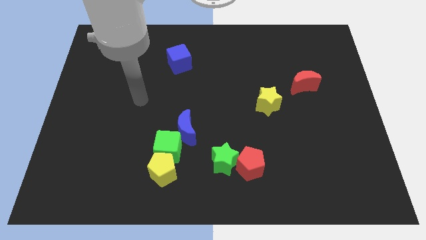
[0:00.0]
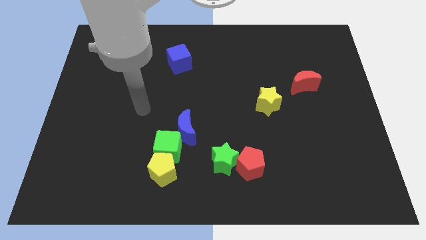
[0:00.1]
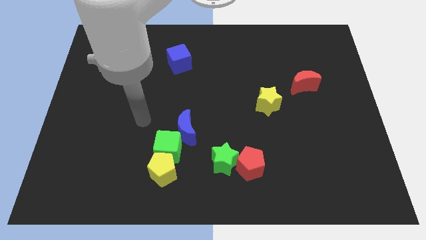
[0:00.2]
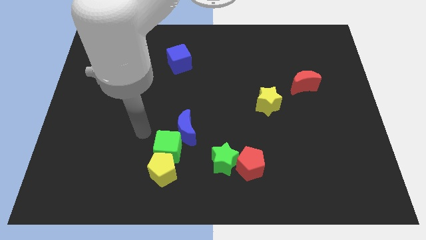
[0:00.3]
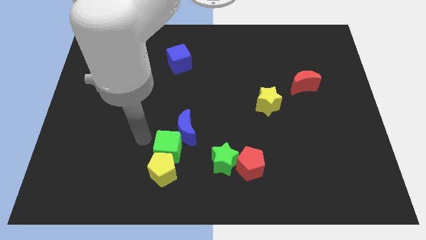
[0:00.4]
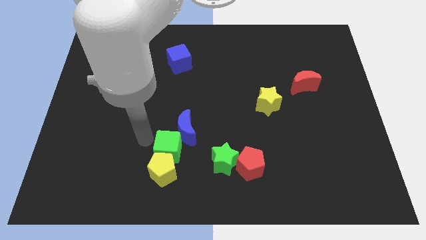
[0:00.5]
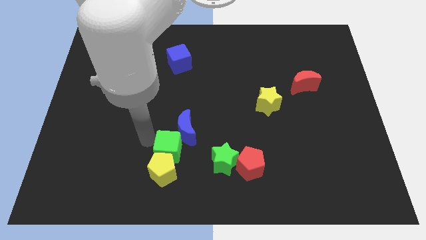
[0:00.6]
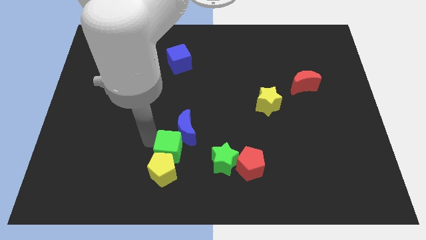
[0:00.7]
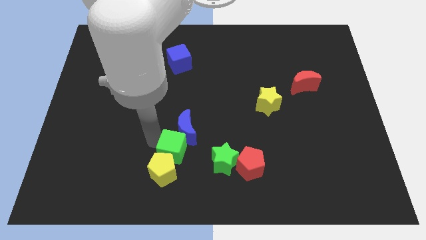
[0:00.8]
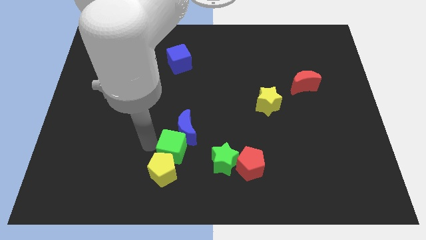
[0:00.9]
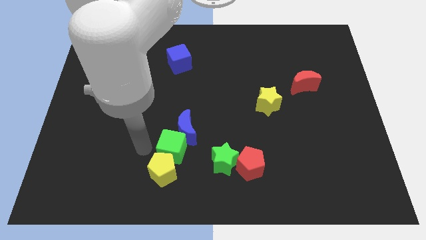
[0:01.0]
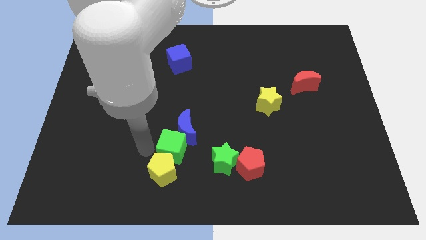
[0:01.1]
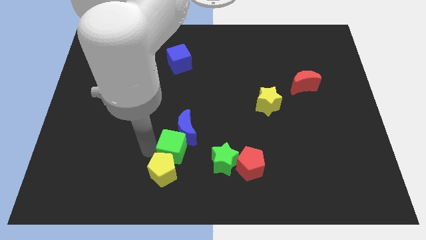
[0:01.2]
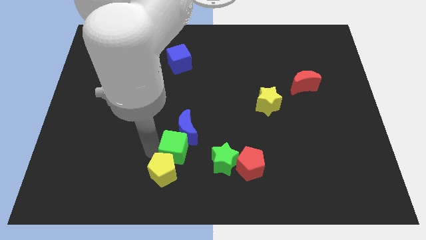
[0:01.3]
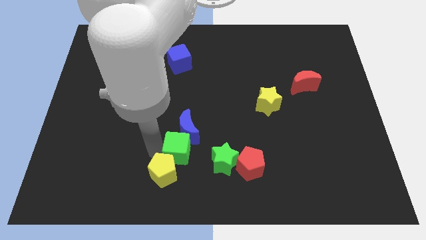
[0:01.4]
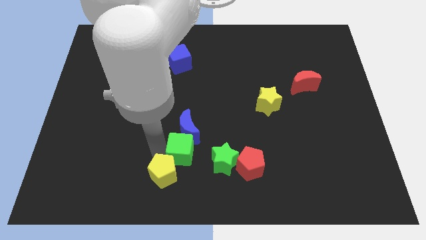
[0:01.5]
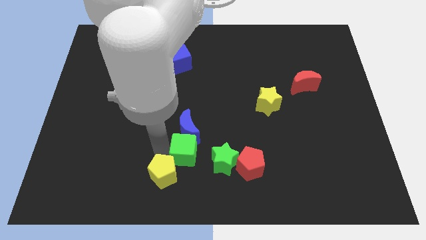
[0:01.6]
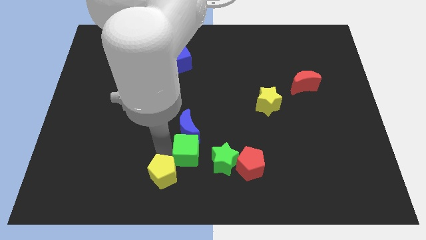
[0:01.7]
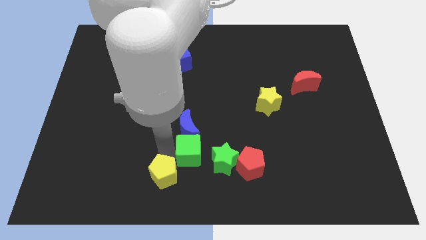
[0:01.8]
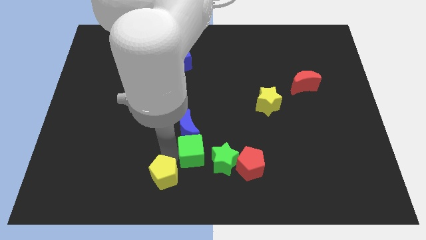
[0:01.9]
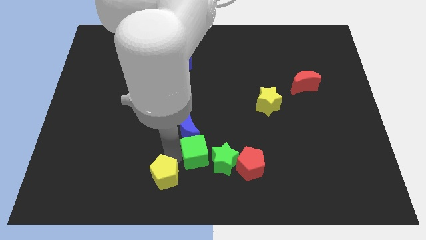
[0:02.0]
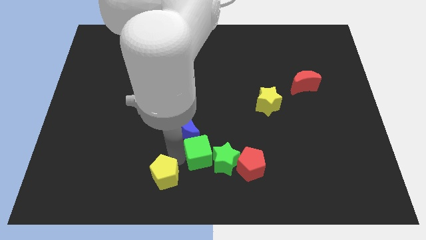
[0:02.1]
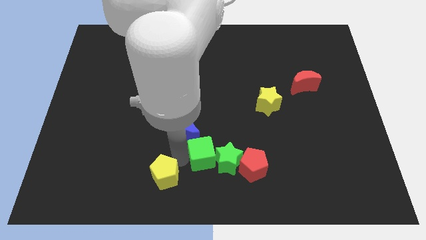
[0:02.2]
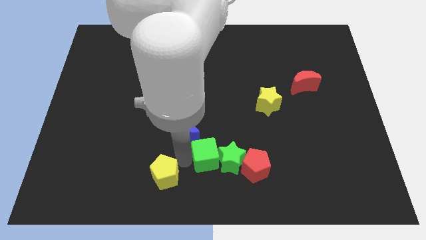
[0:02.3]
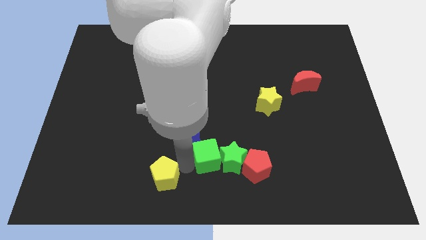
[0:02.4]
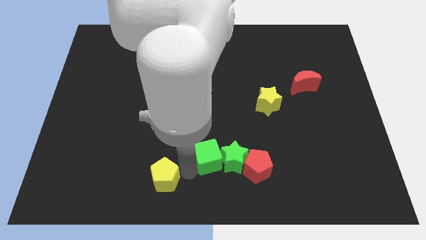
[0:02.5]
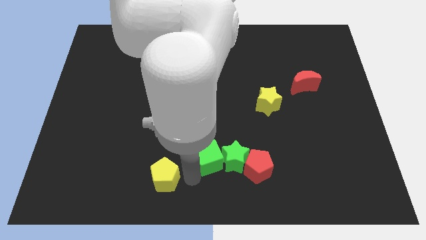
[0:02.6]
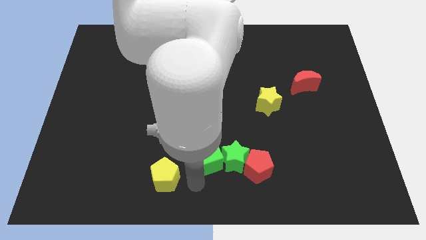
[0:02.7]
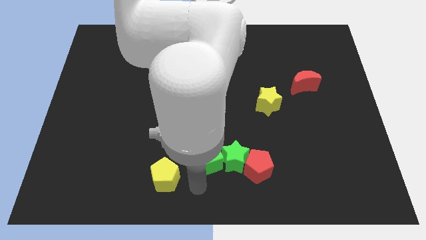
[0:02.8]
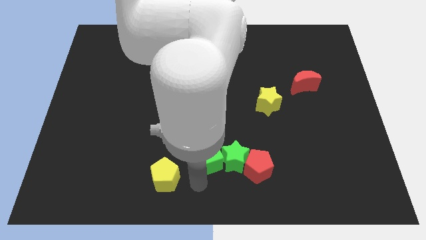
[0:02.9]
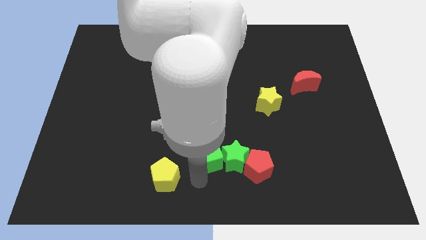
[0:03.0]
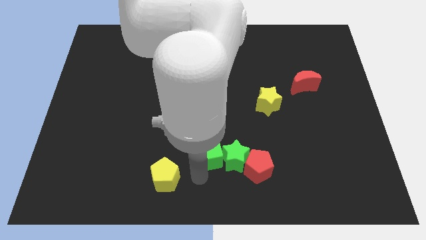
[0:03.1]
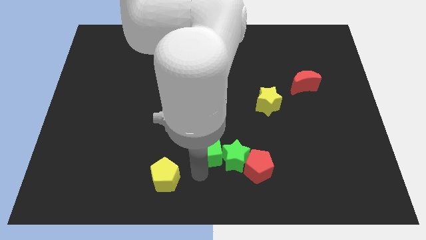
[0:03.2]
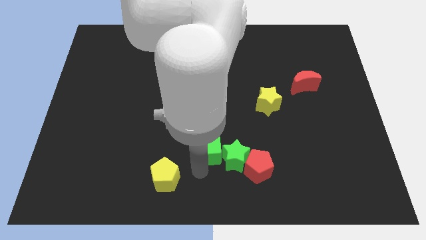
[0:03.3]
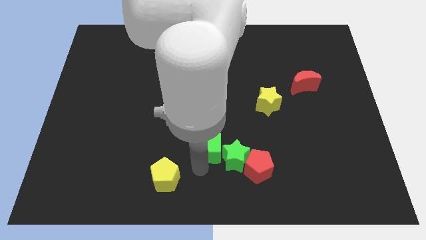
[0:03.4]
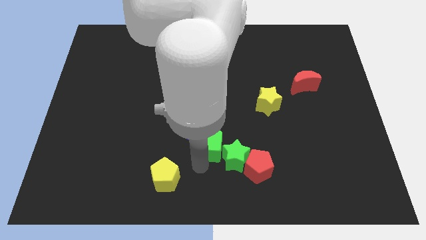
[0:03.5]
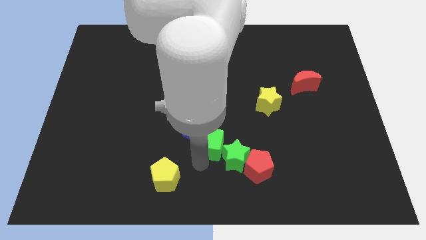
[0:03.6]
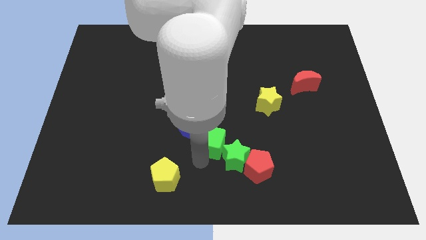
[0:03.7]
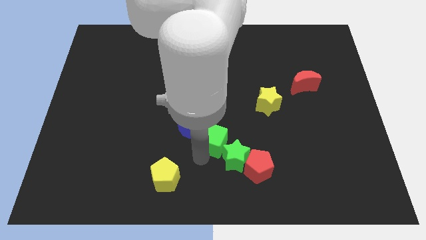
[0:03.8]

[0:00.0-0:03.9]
slide the green cube a bit up and to the right diagonally

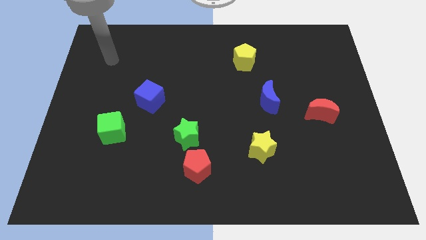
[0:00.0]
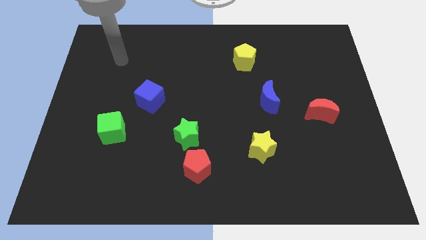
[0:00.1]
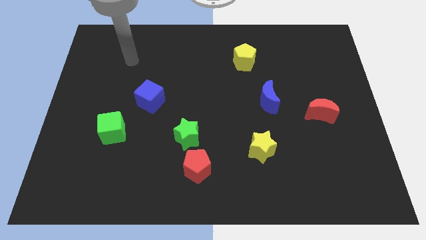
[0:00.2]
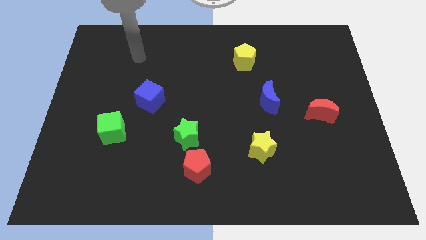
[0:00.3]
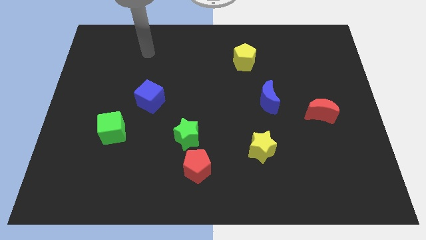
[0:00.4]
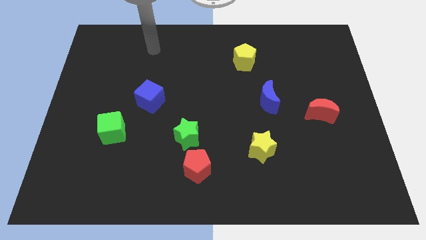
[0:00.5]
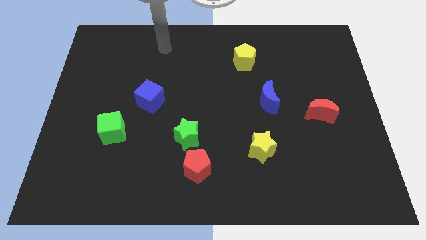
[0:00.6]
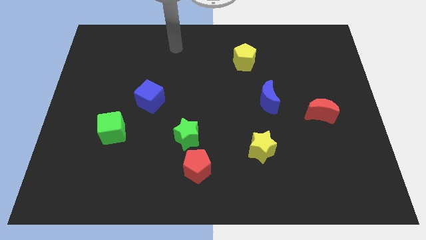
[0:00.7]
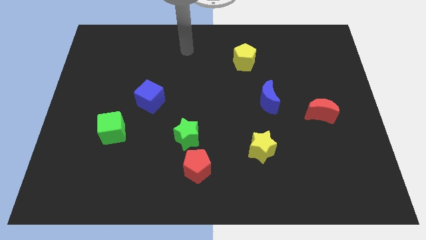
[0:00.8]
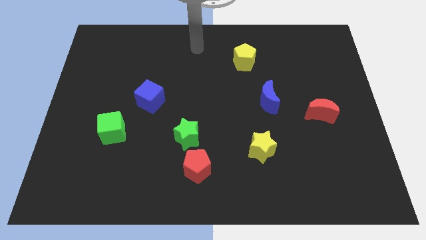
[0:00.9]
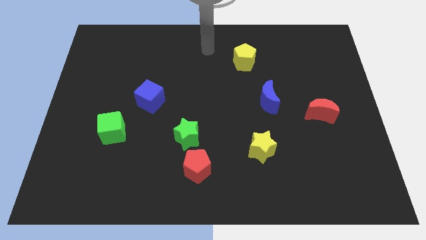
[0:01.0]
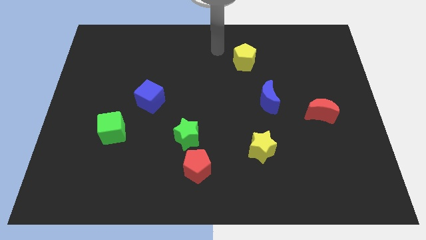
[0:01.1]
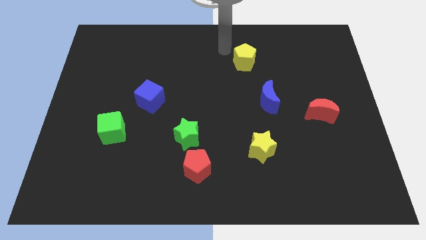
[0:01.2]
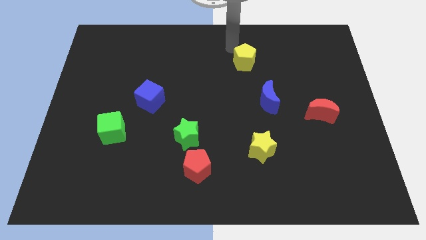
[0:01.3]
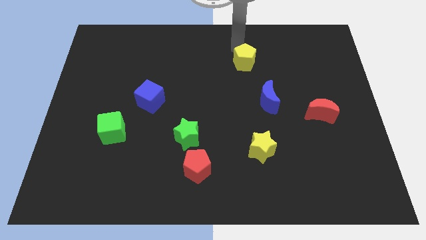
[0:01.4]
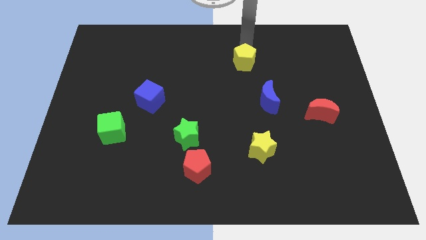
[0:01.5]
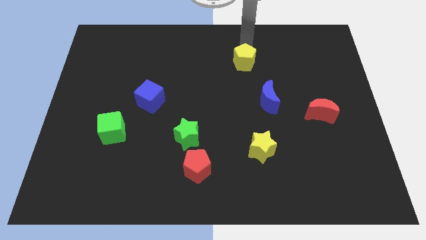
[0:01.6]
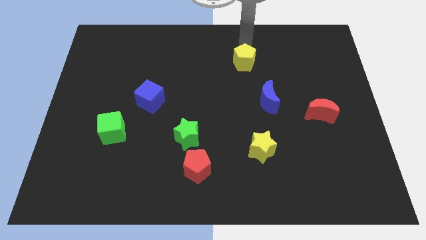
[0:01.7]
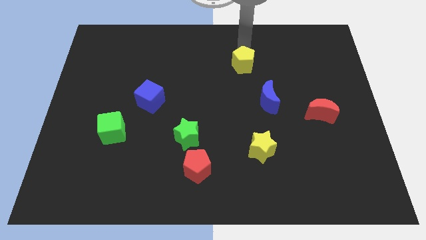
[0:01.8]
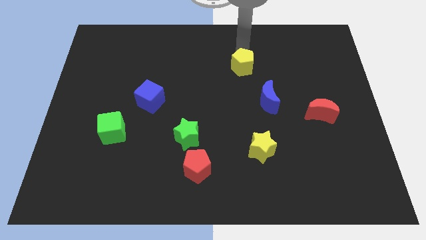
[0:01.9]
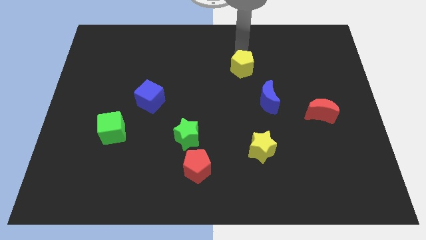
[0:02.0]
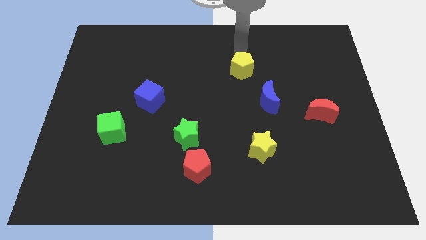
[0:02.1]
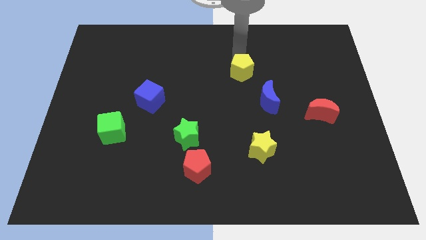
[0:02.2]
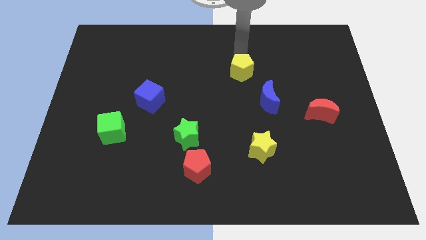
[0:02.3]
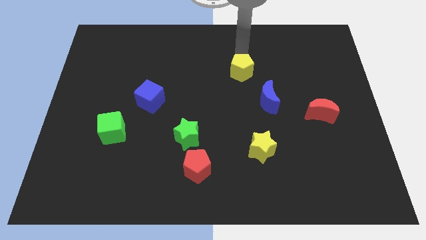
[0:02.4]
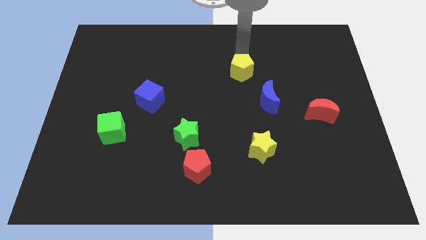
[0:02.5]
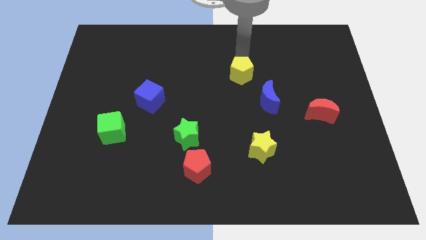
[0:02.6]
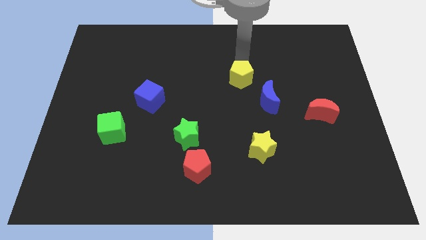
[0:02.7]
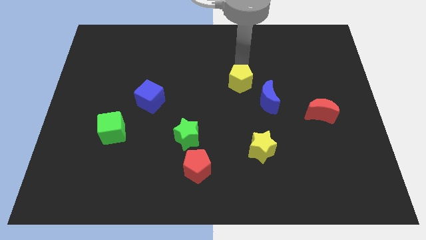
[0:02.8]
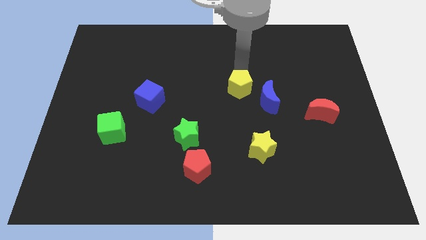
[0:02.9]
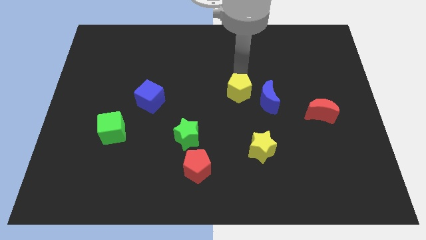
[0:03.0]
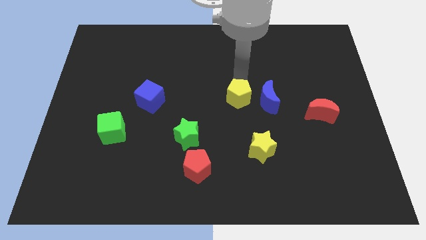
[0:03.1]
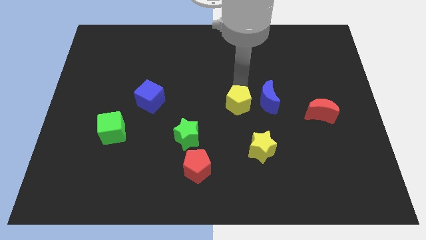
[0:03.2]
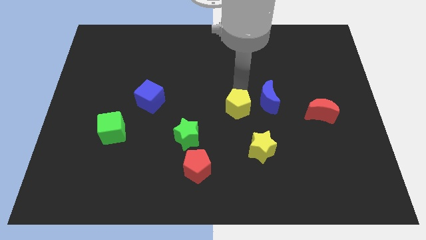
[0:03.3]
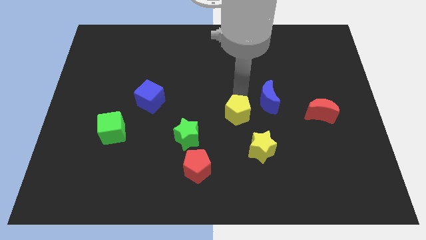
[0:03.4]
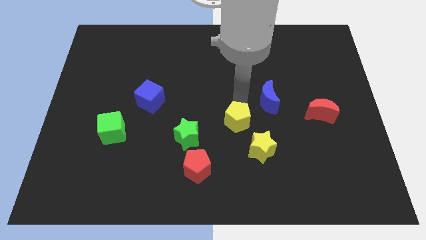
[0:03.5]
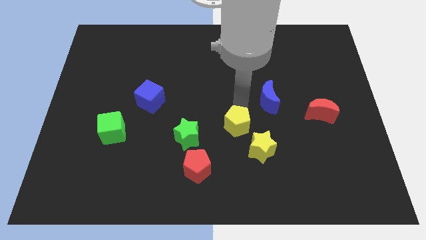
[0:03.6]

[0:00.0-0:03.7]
push the yellow pentagon down
